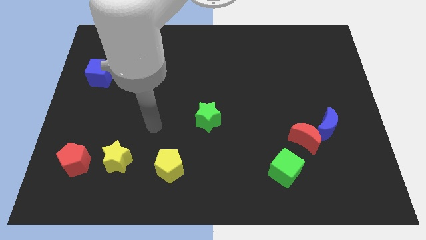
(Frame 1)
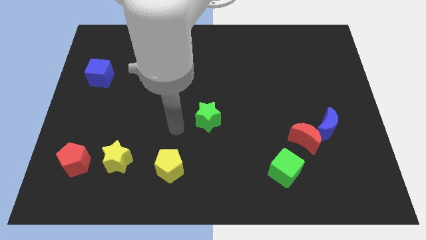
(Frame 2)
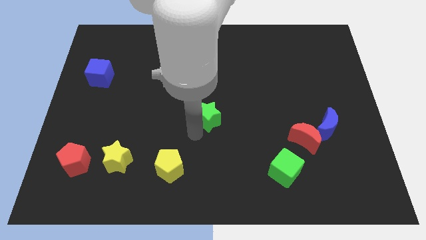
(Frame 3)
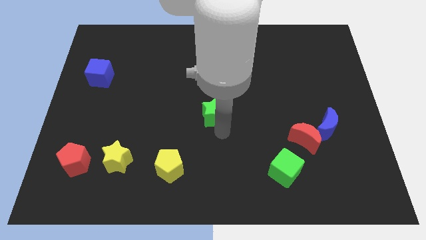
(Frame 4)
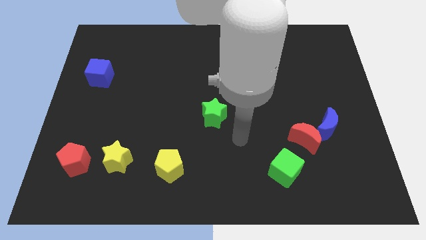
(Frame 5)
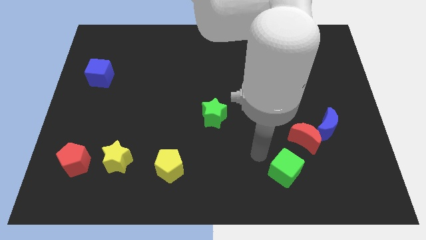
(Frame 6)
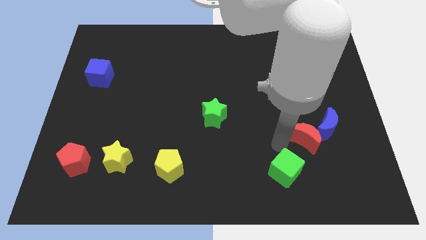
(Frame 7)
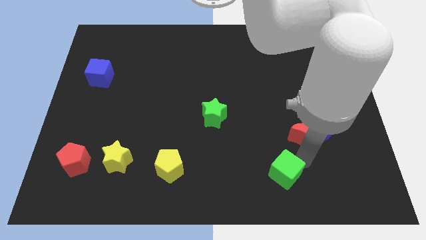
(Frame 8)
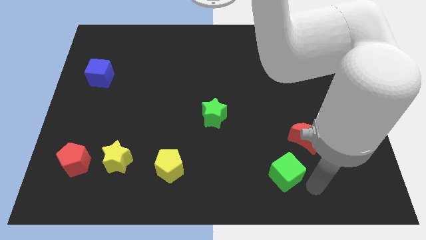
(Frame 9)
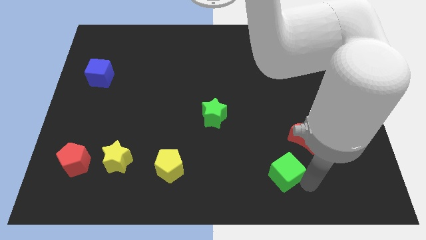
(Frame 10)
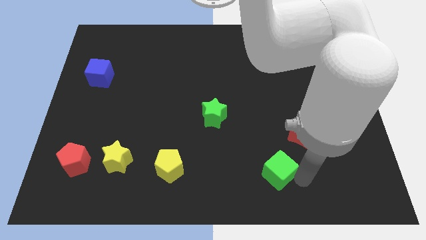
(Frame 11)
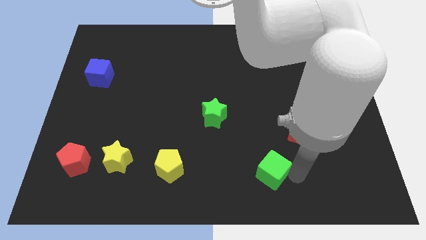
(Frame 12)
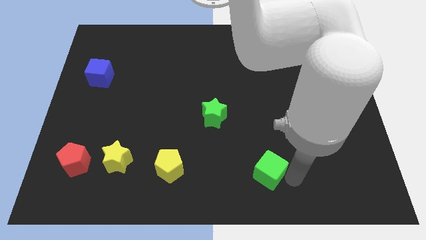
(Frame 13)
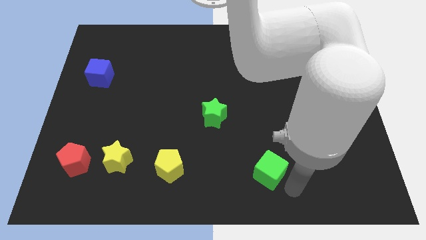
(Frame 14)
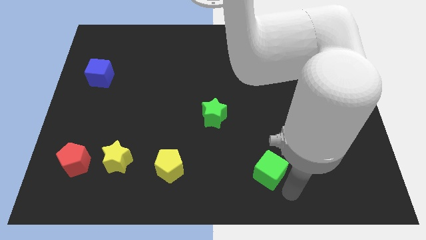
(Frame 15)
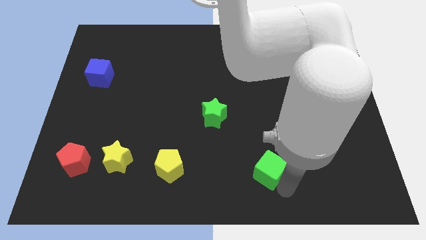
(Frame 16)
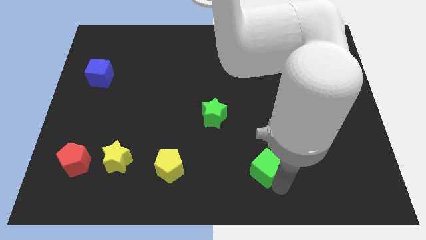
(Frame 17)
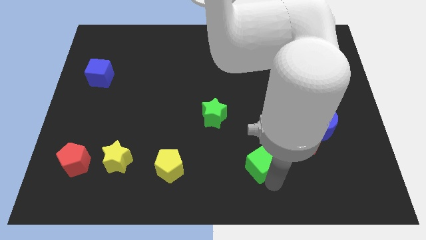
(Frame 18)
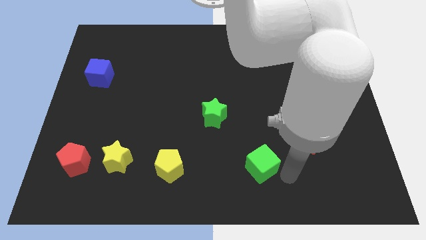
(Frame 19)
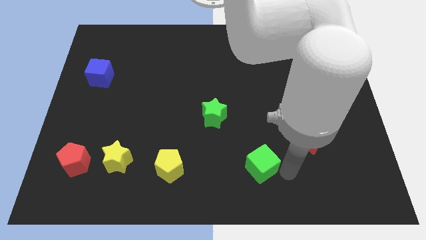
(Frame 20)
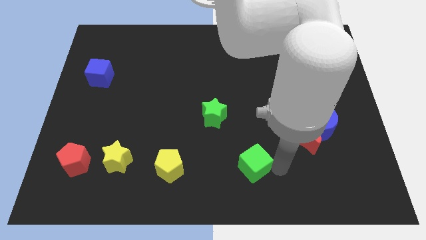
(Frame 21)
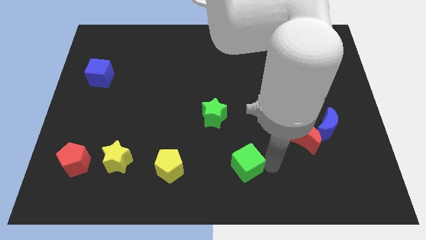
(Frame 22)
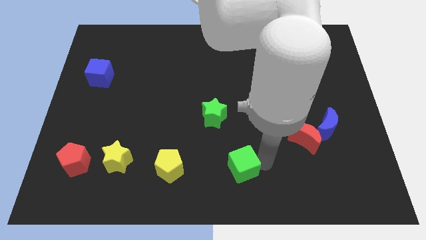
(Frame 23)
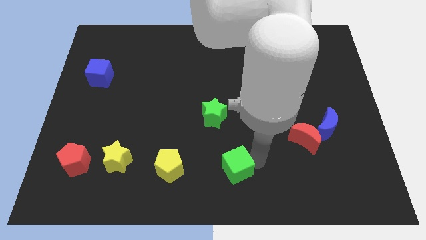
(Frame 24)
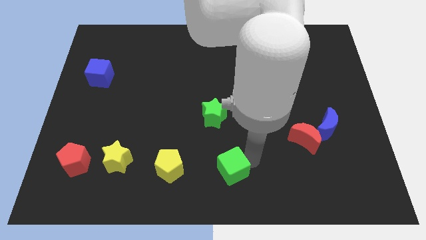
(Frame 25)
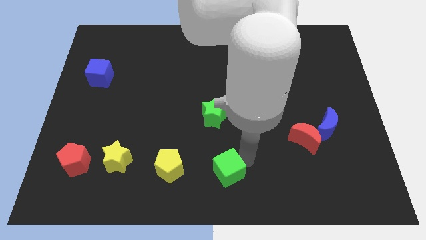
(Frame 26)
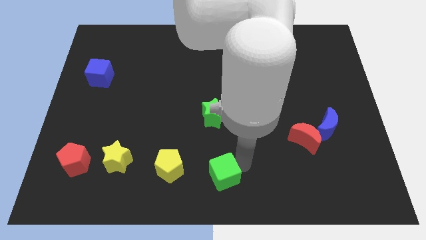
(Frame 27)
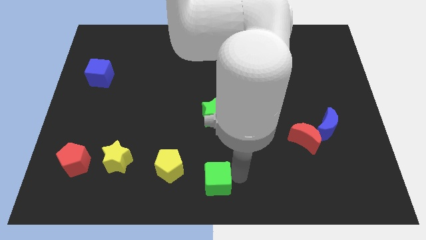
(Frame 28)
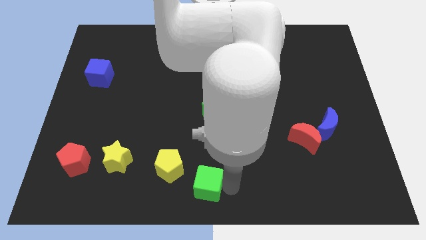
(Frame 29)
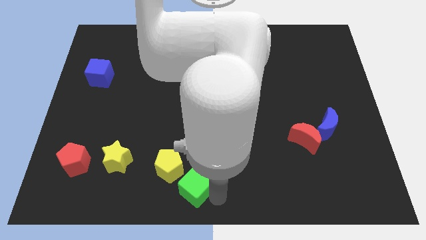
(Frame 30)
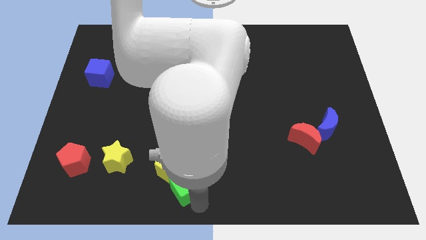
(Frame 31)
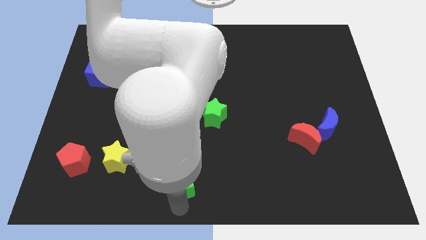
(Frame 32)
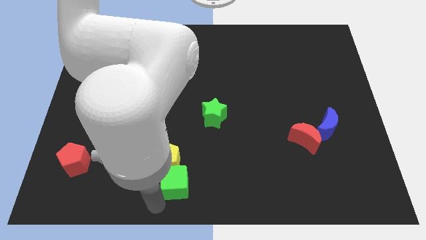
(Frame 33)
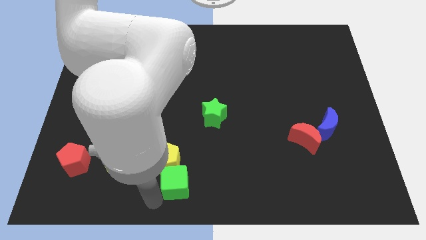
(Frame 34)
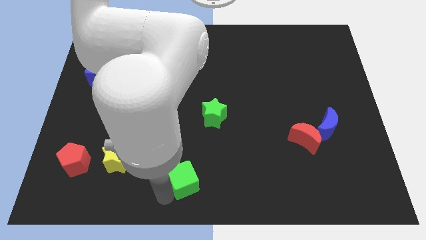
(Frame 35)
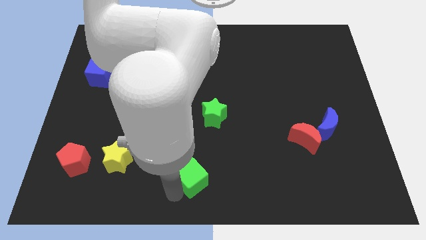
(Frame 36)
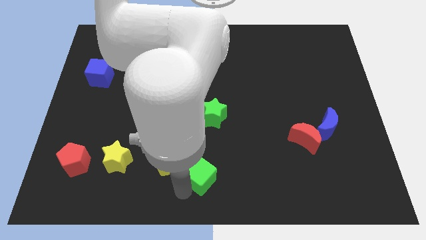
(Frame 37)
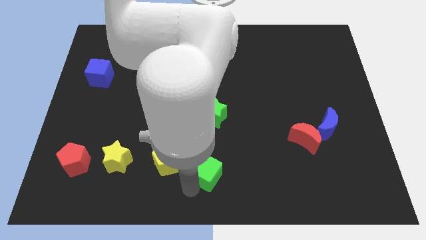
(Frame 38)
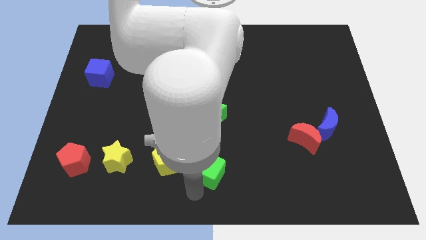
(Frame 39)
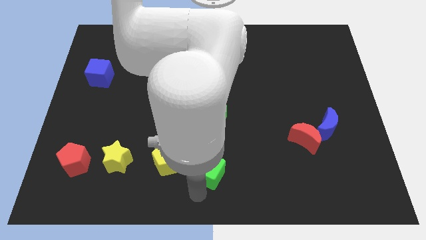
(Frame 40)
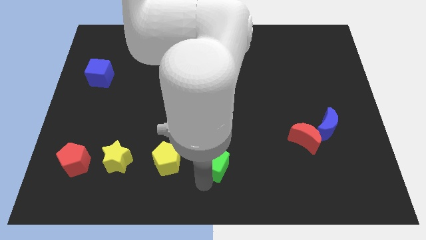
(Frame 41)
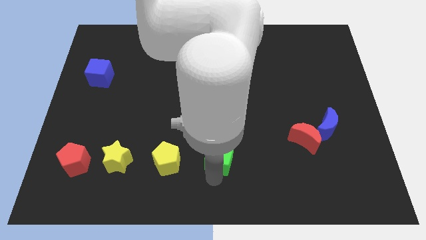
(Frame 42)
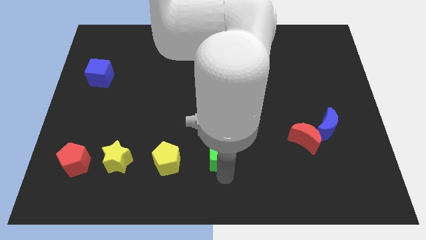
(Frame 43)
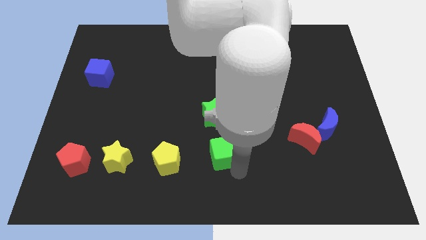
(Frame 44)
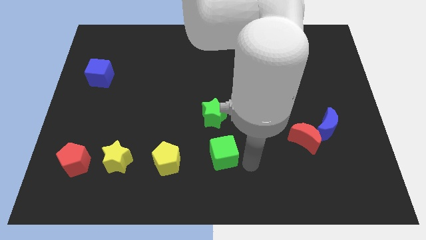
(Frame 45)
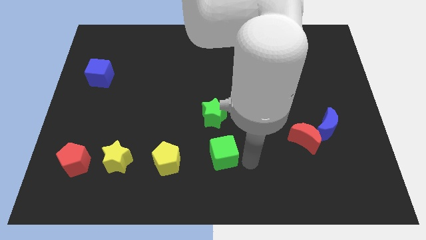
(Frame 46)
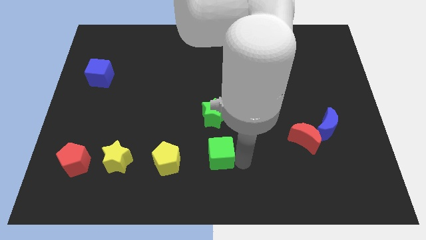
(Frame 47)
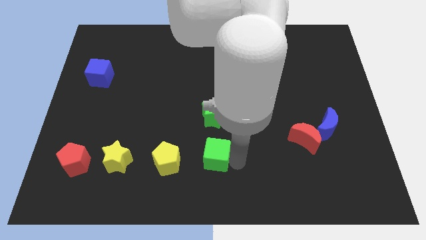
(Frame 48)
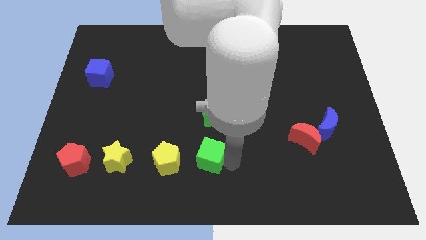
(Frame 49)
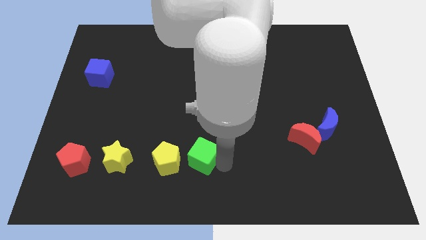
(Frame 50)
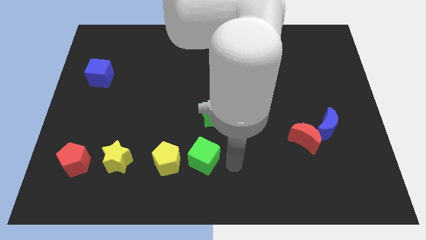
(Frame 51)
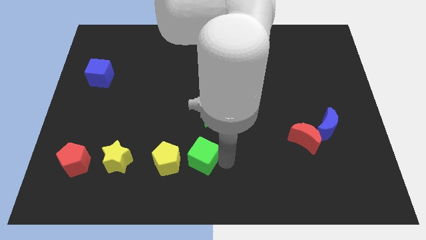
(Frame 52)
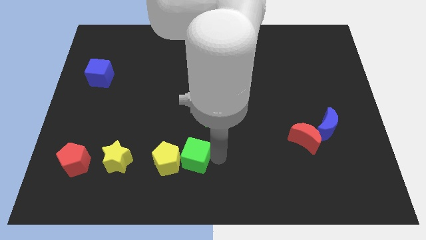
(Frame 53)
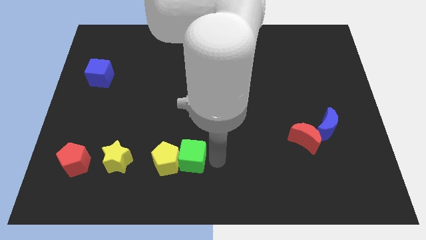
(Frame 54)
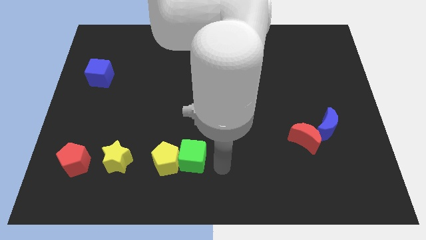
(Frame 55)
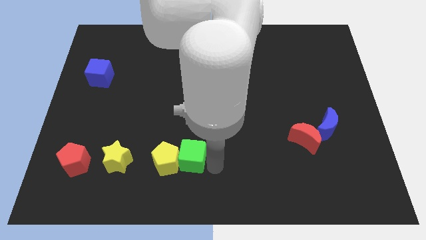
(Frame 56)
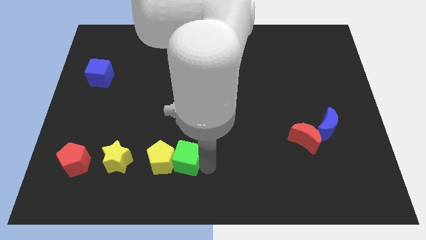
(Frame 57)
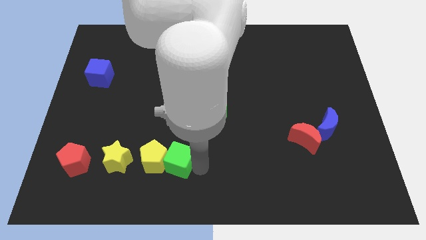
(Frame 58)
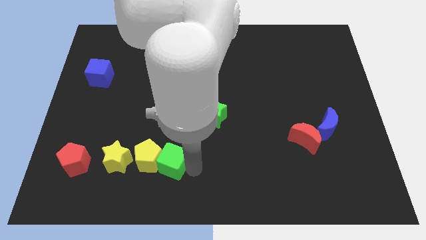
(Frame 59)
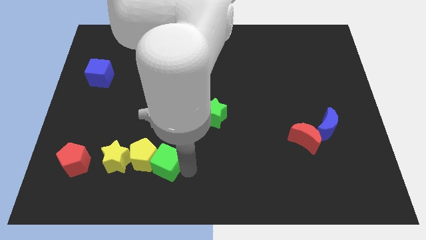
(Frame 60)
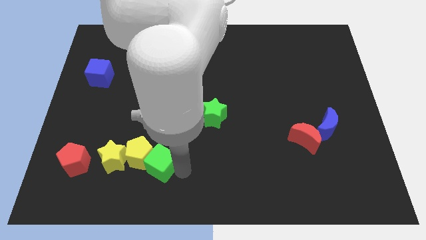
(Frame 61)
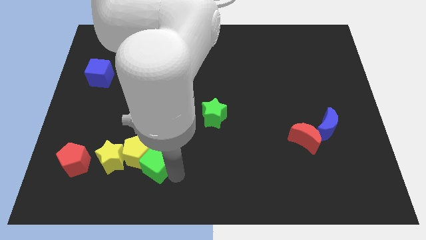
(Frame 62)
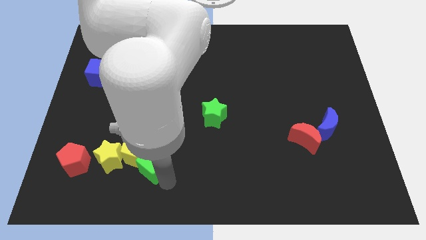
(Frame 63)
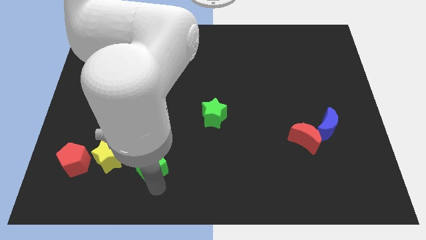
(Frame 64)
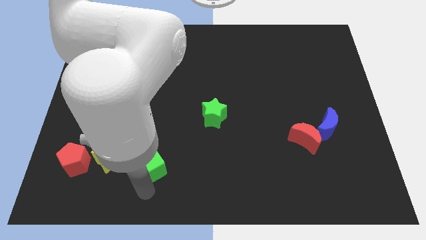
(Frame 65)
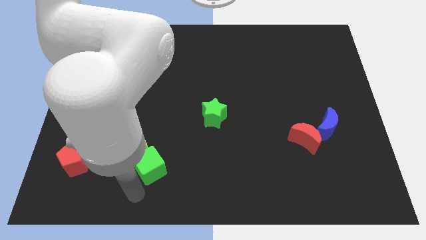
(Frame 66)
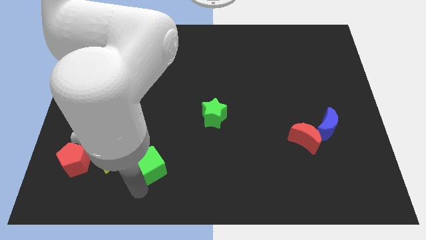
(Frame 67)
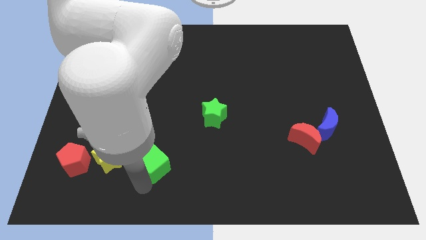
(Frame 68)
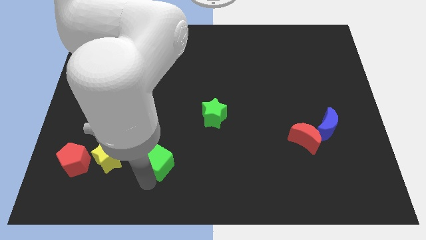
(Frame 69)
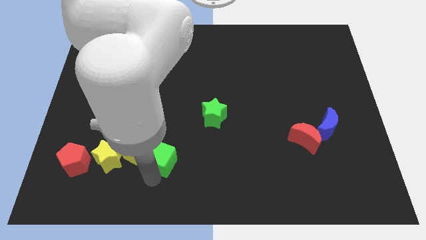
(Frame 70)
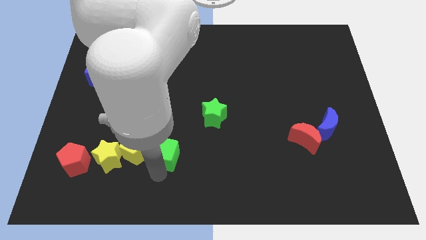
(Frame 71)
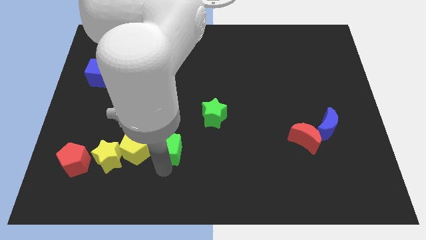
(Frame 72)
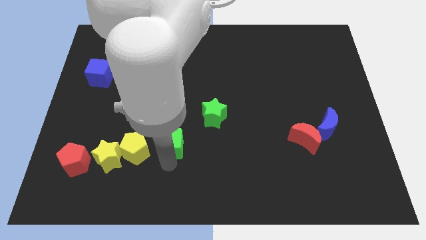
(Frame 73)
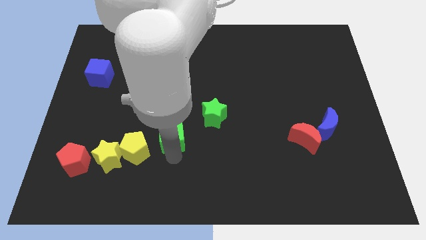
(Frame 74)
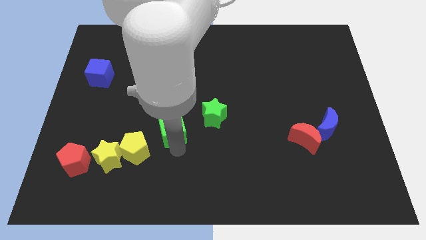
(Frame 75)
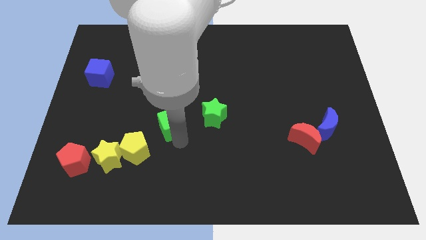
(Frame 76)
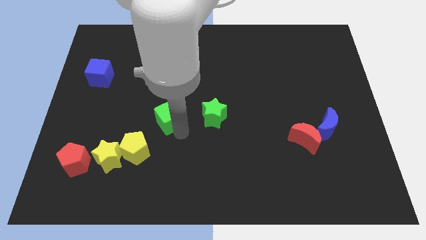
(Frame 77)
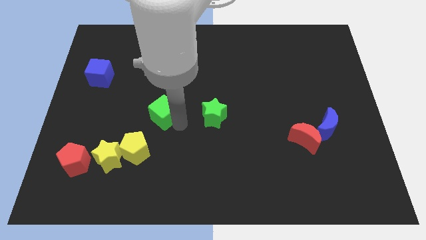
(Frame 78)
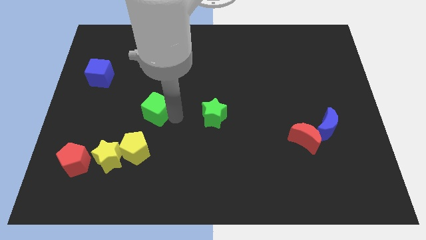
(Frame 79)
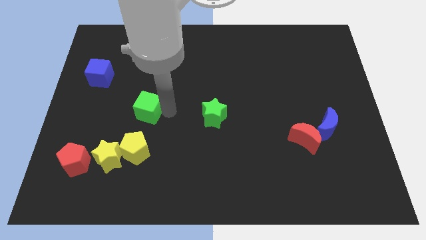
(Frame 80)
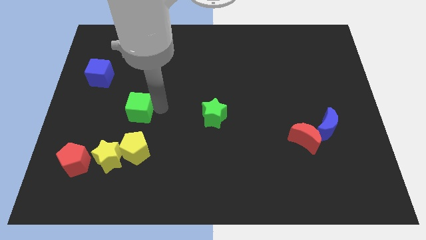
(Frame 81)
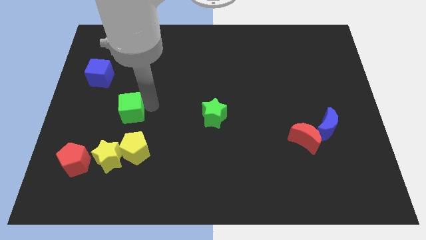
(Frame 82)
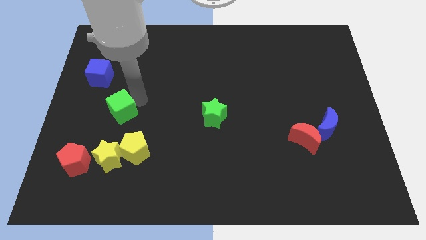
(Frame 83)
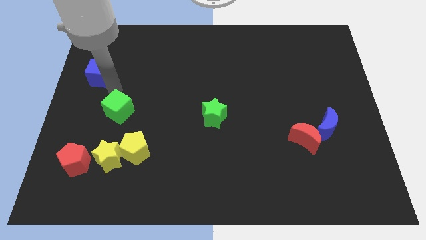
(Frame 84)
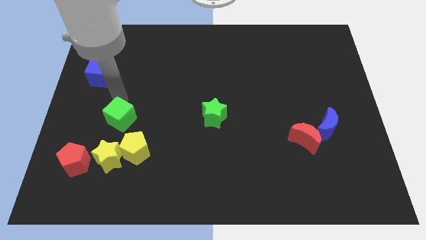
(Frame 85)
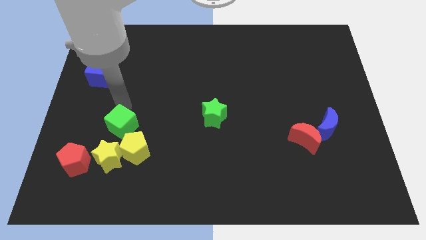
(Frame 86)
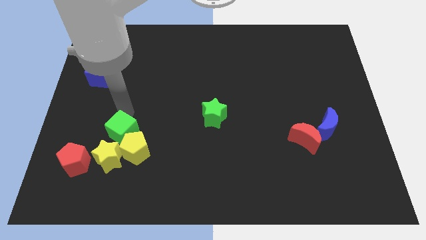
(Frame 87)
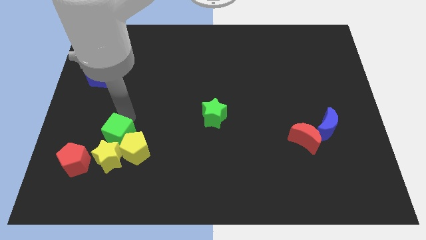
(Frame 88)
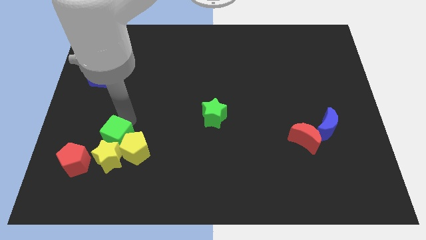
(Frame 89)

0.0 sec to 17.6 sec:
push the green cube to the yellow star
